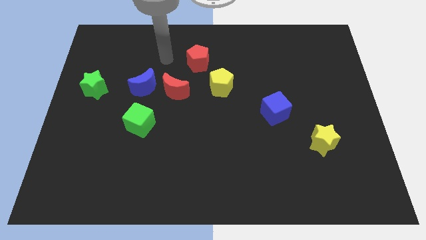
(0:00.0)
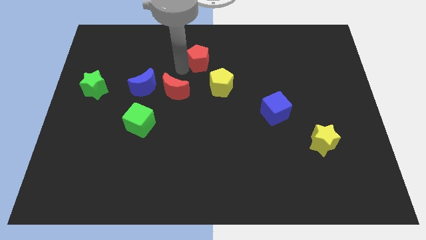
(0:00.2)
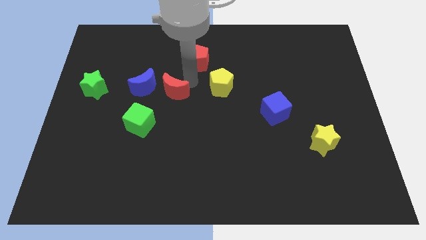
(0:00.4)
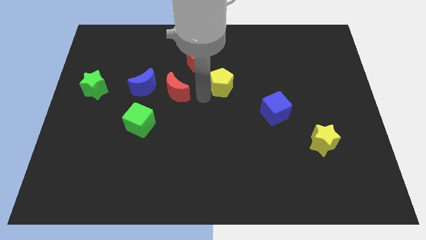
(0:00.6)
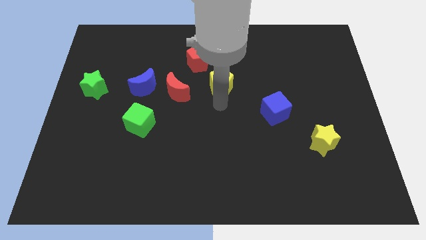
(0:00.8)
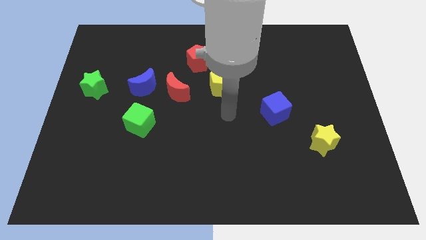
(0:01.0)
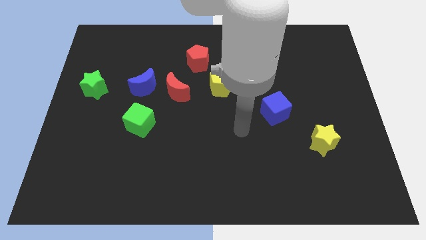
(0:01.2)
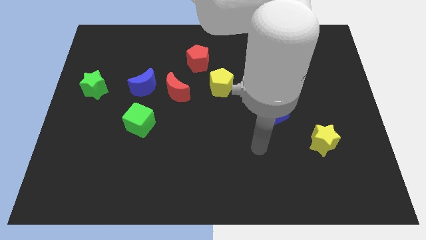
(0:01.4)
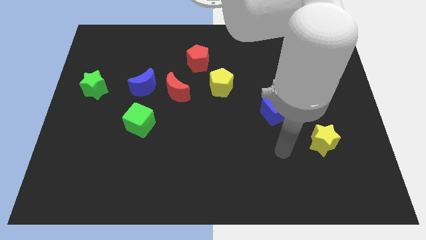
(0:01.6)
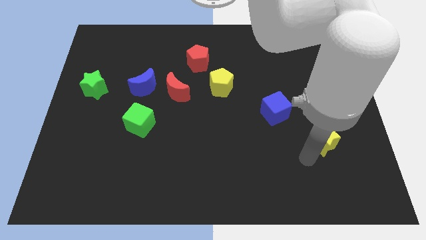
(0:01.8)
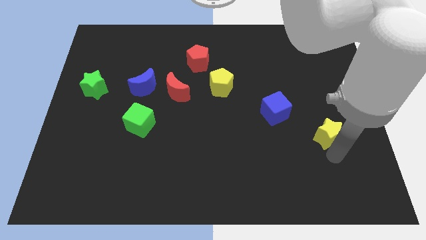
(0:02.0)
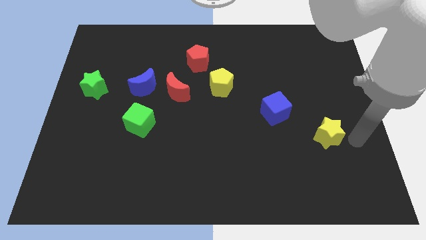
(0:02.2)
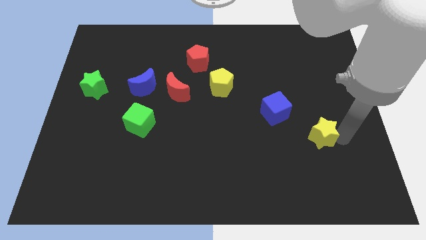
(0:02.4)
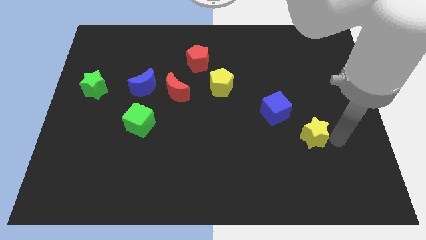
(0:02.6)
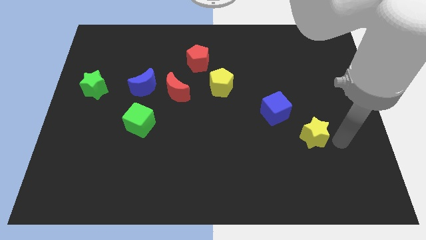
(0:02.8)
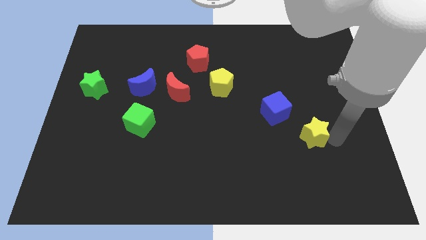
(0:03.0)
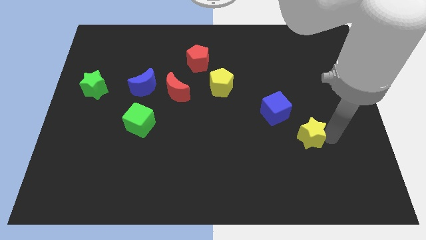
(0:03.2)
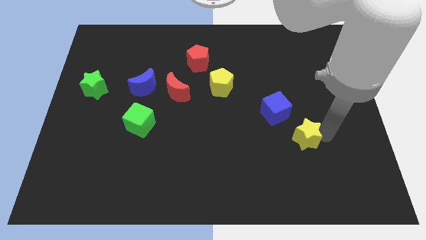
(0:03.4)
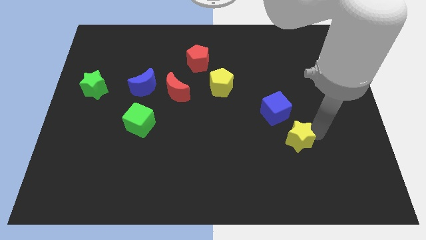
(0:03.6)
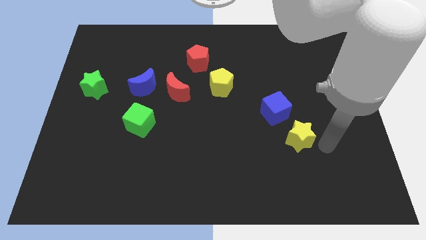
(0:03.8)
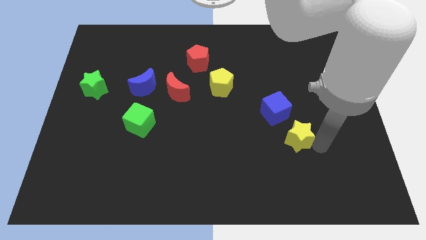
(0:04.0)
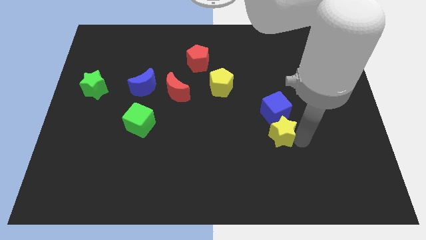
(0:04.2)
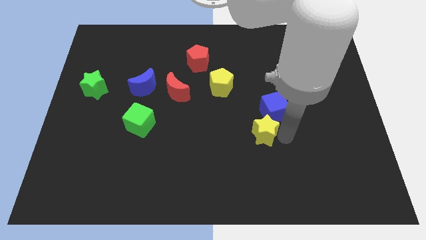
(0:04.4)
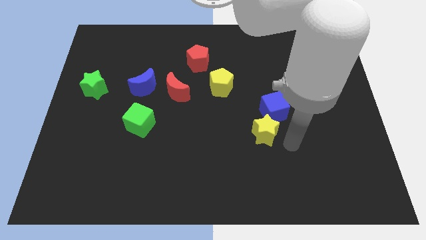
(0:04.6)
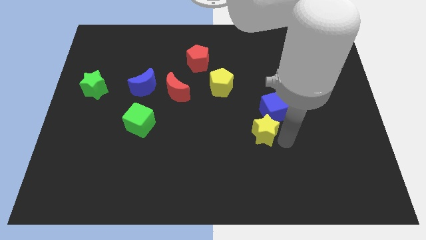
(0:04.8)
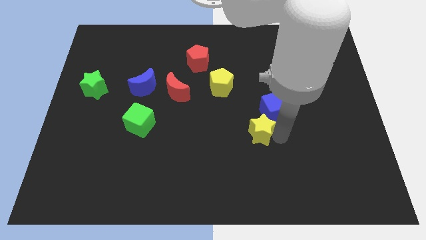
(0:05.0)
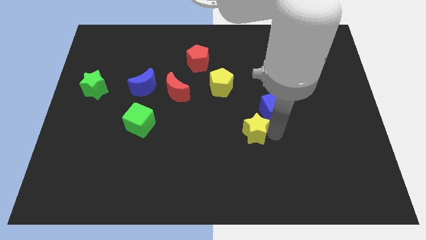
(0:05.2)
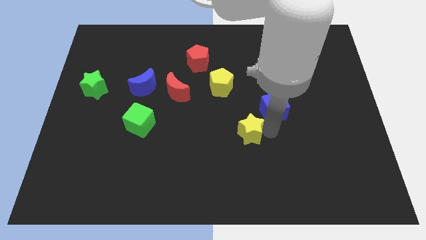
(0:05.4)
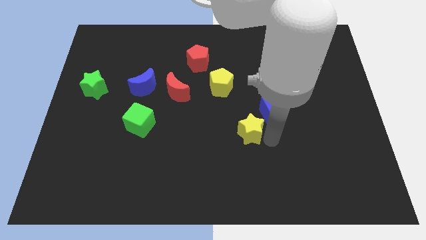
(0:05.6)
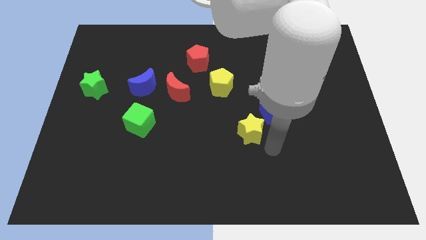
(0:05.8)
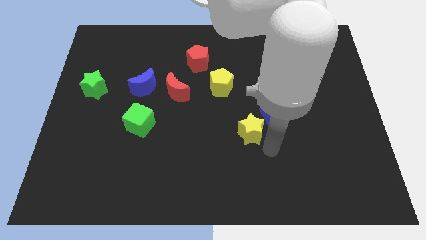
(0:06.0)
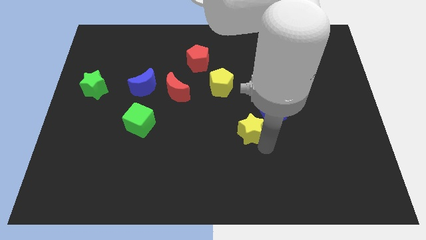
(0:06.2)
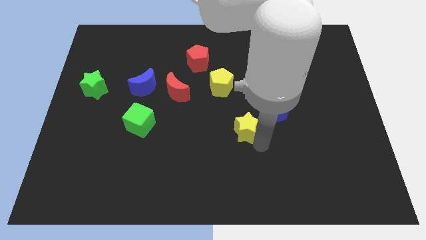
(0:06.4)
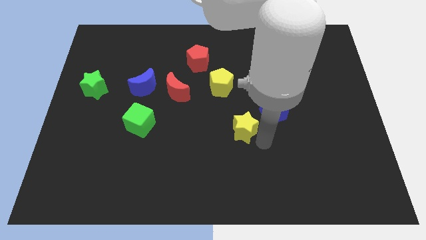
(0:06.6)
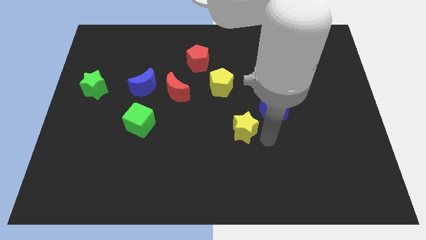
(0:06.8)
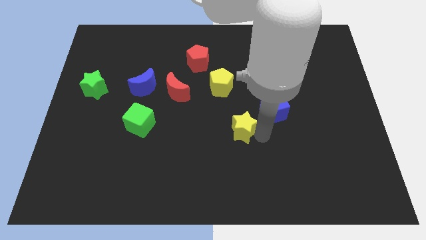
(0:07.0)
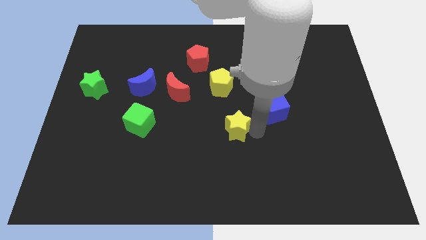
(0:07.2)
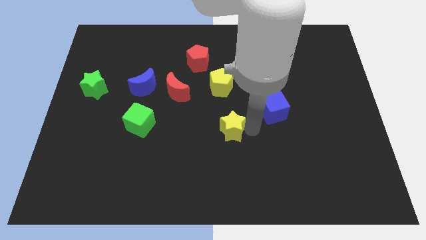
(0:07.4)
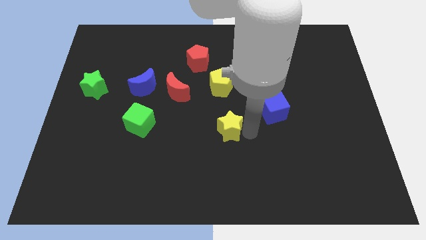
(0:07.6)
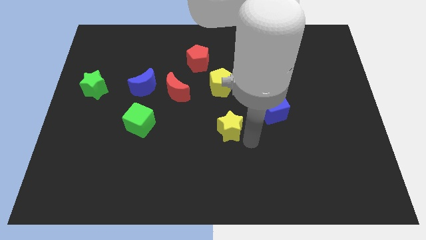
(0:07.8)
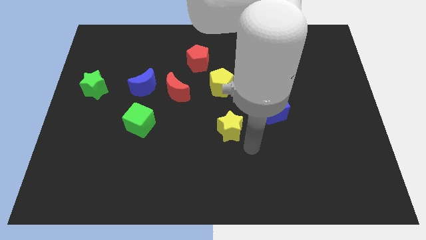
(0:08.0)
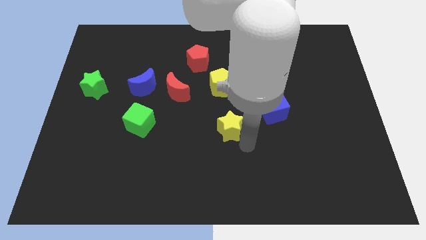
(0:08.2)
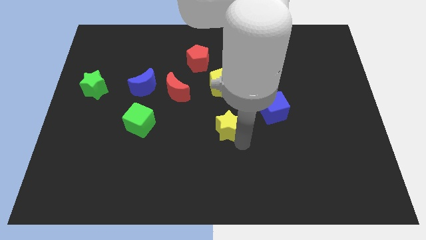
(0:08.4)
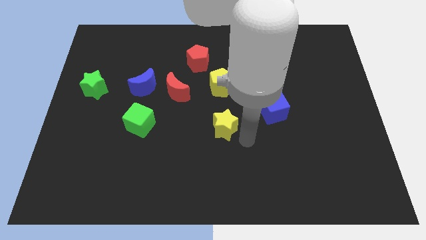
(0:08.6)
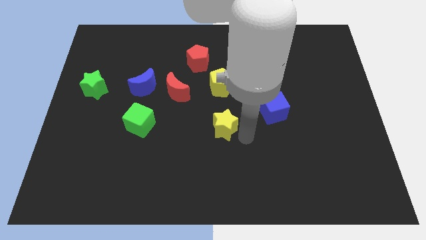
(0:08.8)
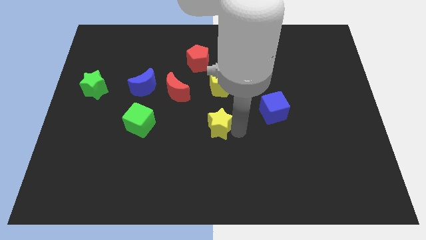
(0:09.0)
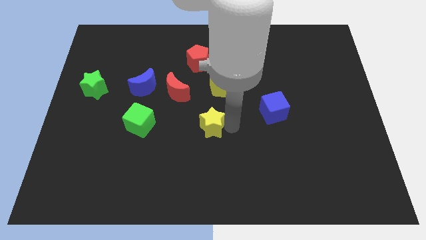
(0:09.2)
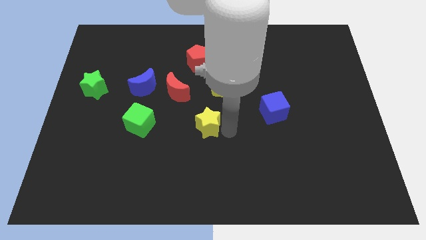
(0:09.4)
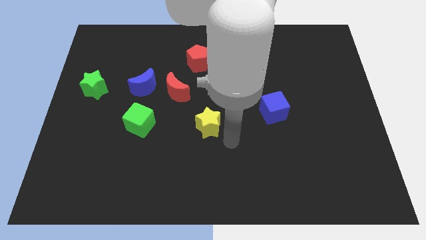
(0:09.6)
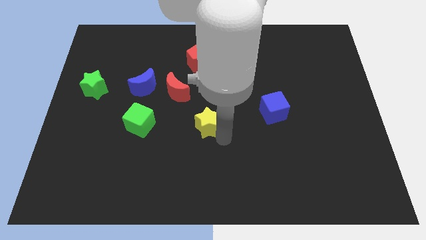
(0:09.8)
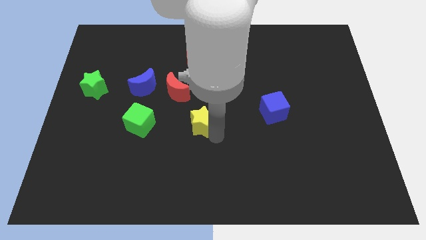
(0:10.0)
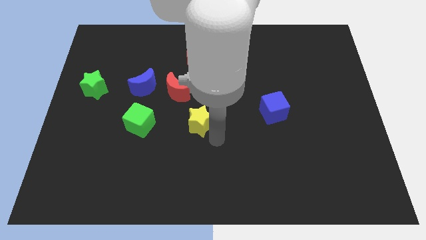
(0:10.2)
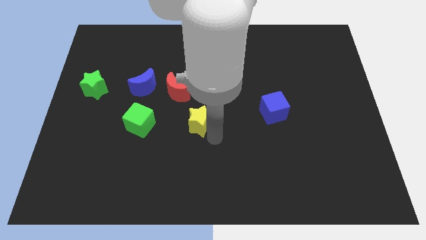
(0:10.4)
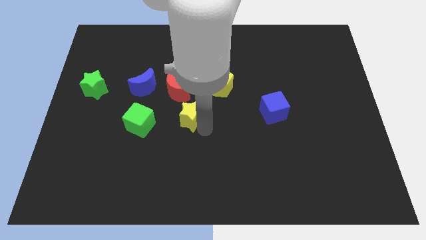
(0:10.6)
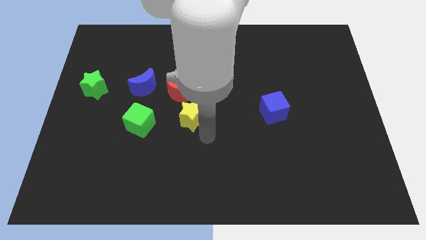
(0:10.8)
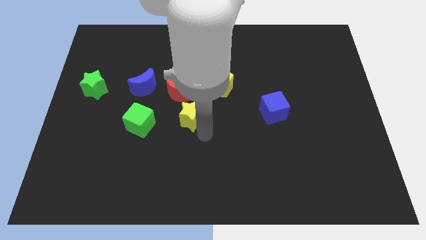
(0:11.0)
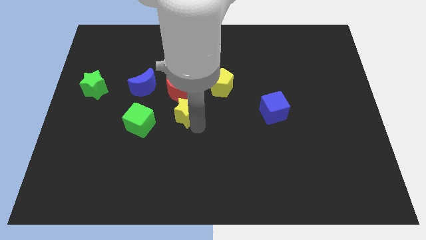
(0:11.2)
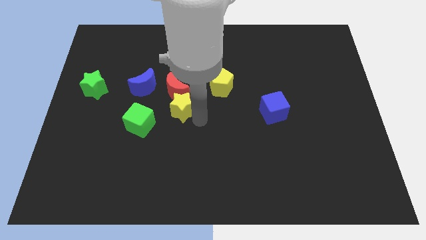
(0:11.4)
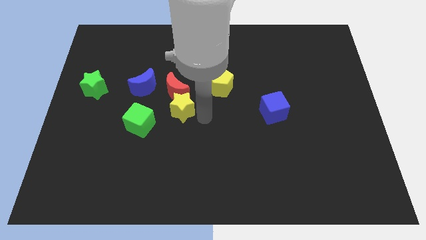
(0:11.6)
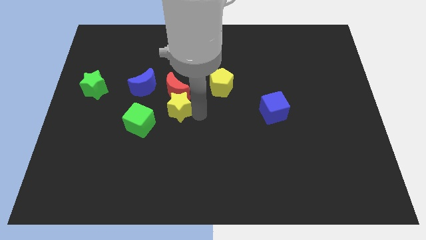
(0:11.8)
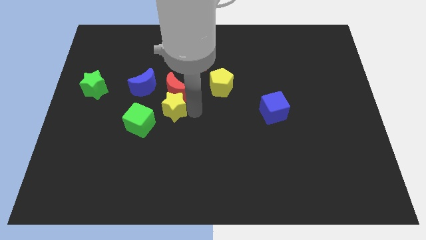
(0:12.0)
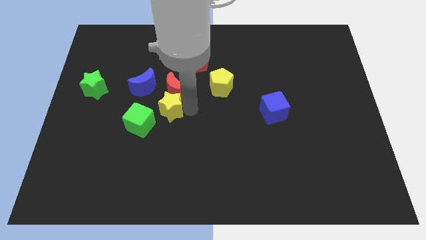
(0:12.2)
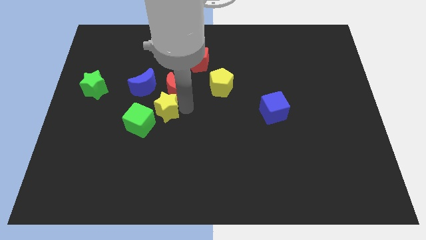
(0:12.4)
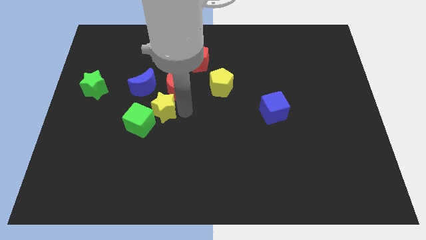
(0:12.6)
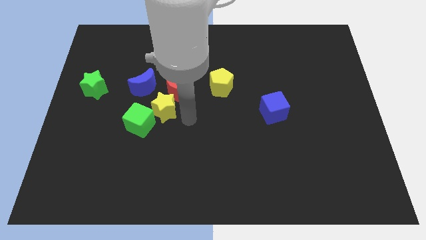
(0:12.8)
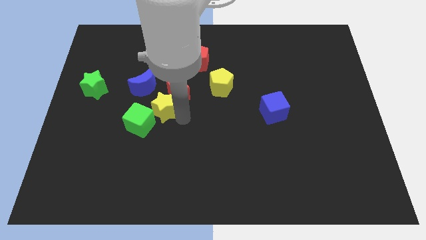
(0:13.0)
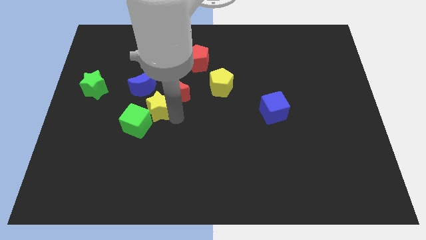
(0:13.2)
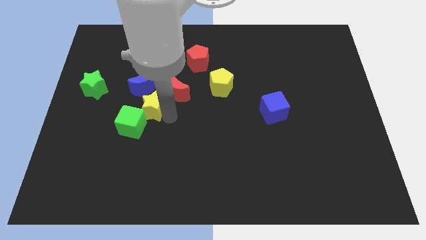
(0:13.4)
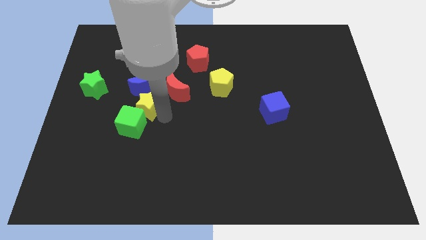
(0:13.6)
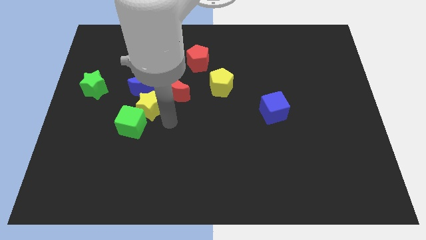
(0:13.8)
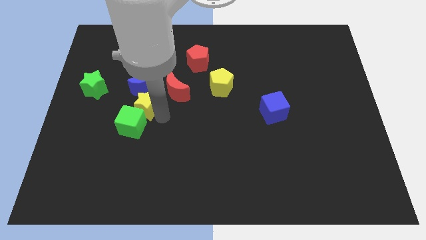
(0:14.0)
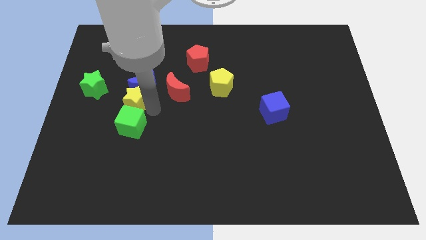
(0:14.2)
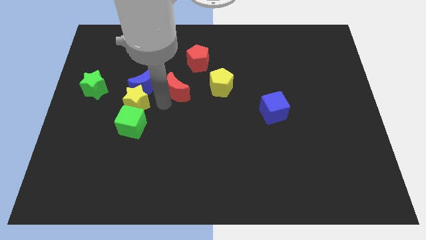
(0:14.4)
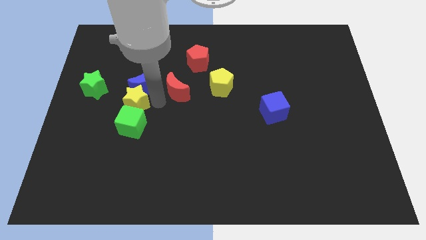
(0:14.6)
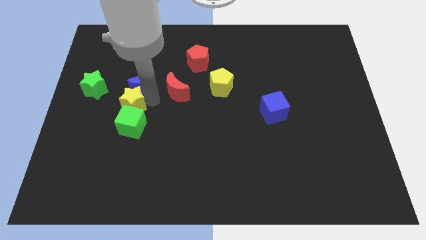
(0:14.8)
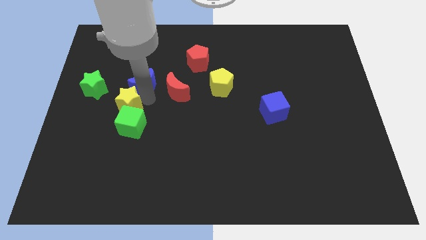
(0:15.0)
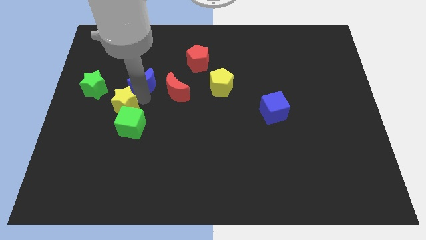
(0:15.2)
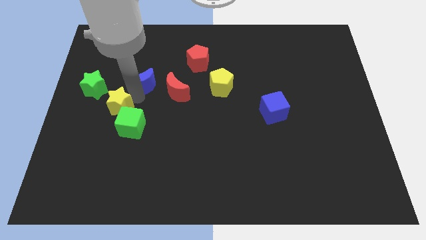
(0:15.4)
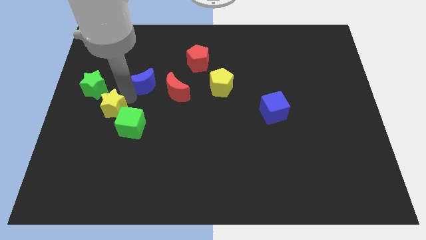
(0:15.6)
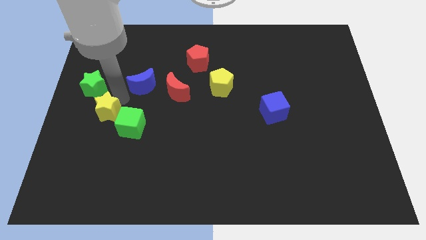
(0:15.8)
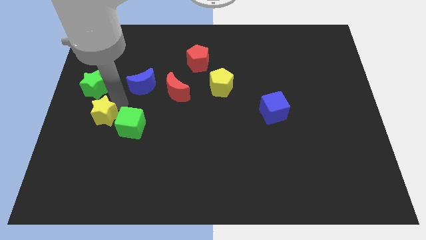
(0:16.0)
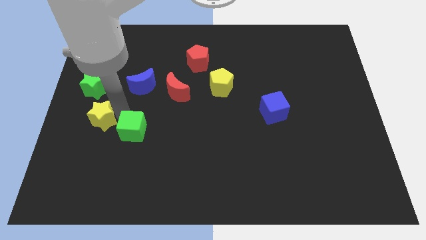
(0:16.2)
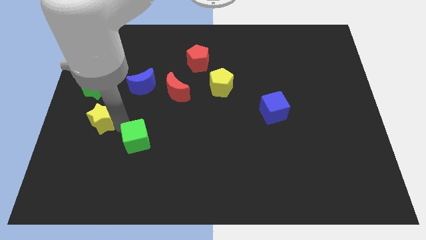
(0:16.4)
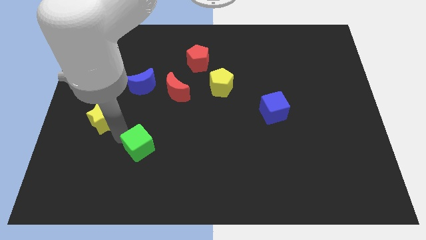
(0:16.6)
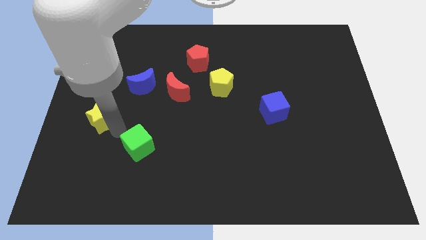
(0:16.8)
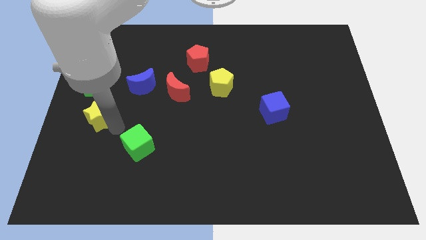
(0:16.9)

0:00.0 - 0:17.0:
put the yellow star to the left side
